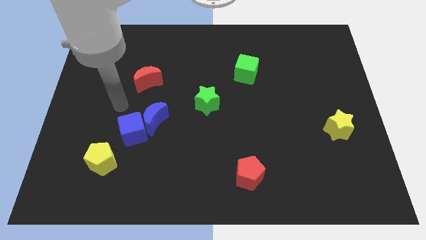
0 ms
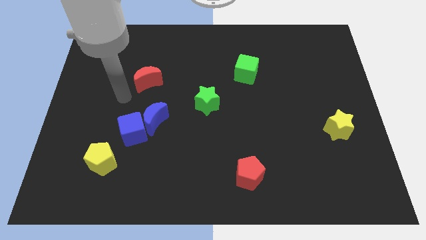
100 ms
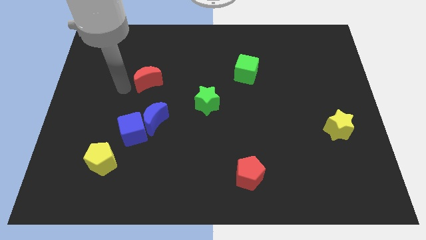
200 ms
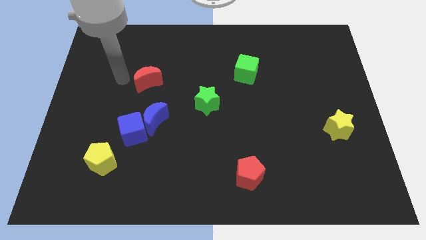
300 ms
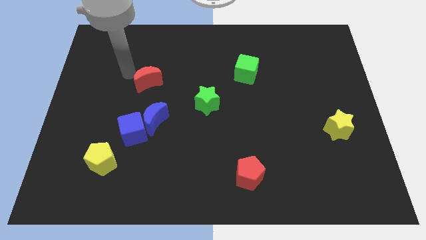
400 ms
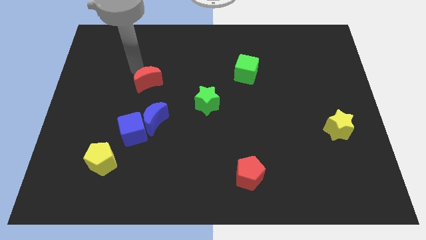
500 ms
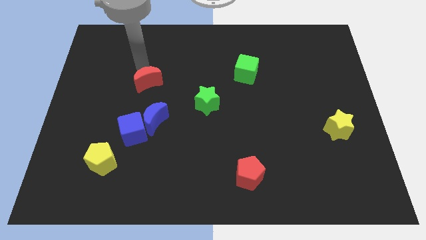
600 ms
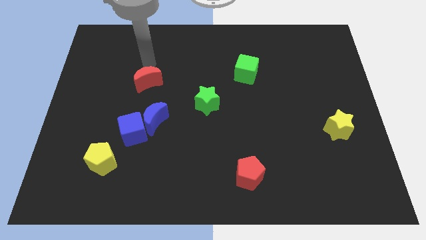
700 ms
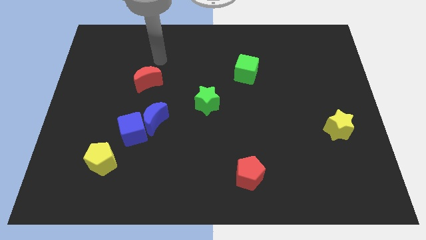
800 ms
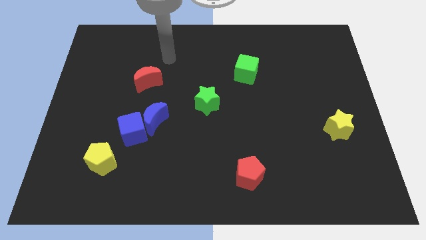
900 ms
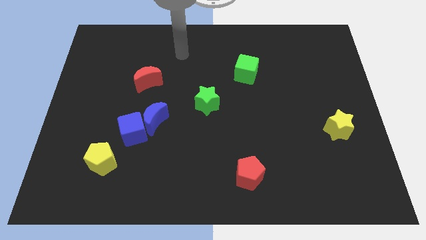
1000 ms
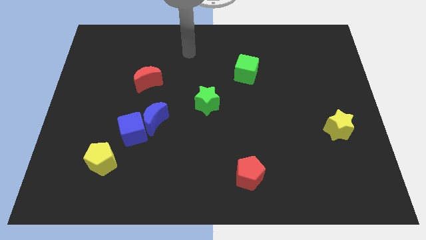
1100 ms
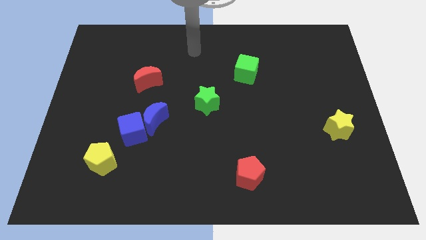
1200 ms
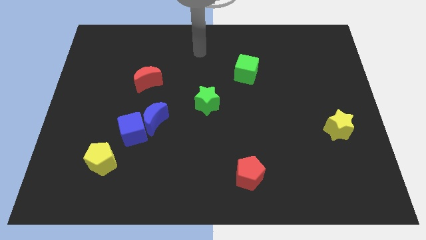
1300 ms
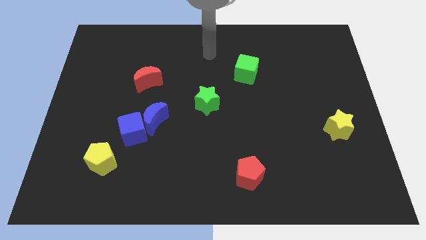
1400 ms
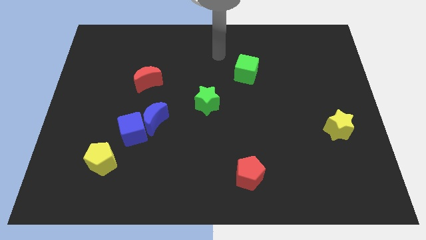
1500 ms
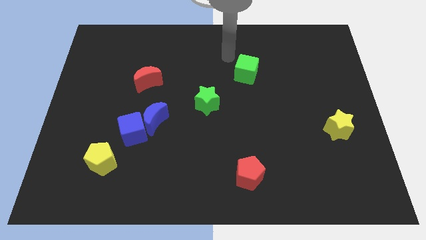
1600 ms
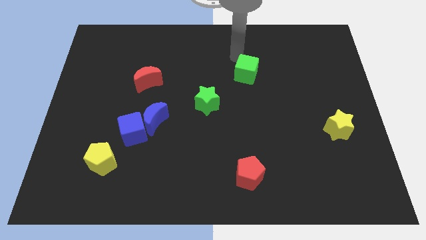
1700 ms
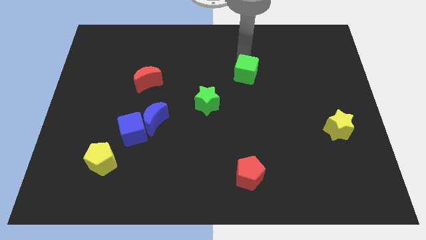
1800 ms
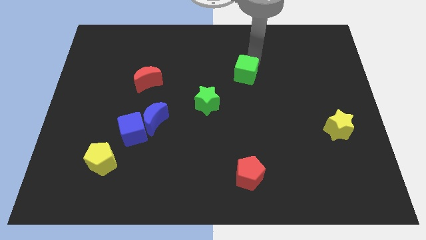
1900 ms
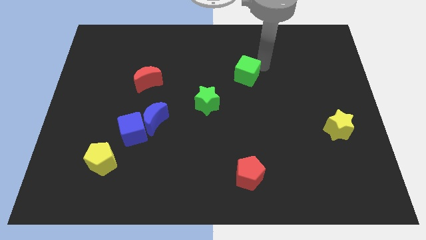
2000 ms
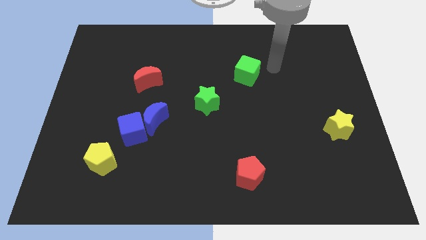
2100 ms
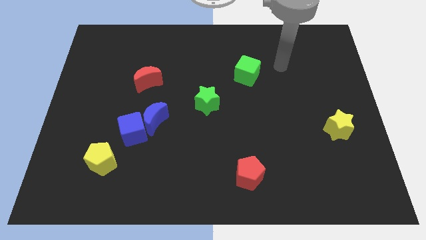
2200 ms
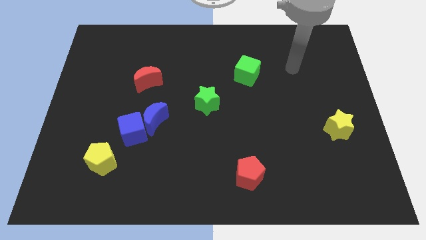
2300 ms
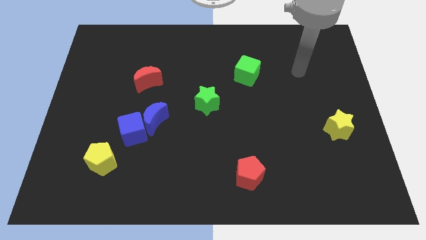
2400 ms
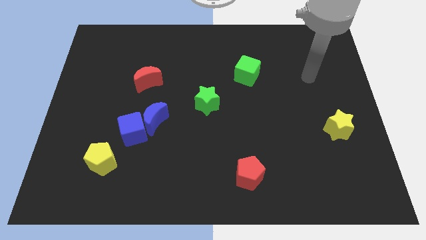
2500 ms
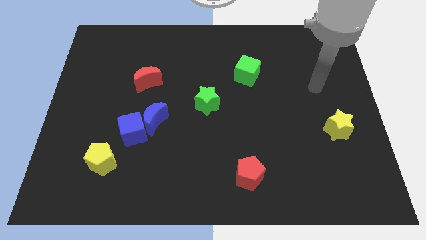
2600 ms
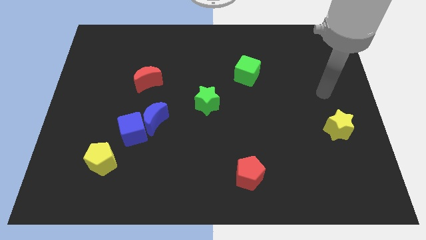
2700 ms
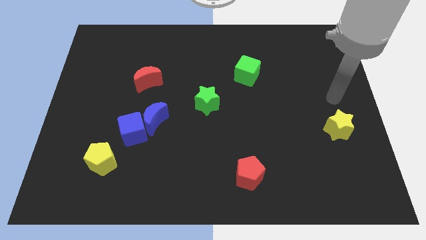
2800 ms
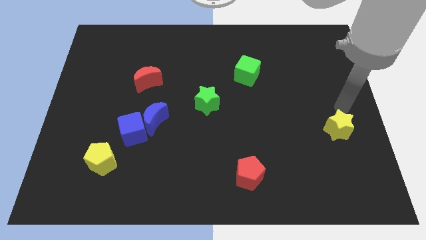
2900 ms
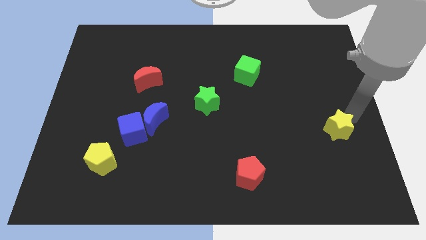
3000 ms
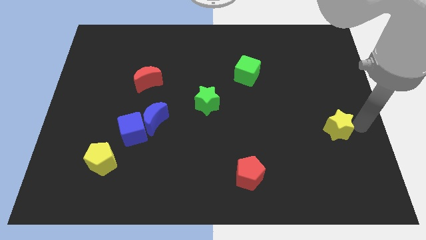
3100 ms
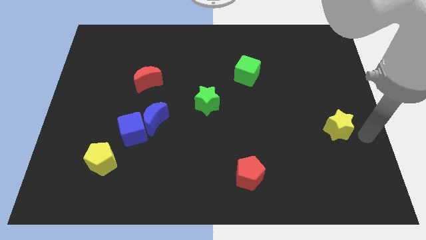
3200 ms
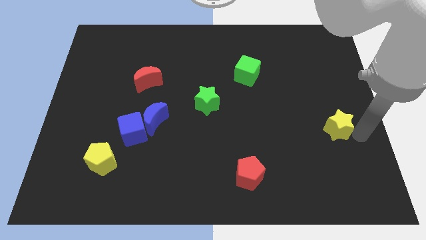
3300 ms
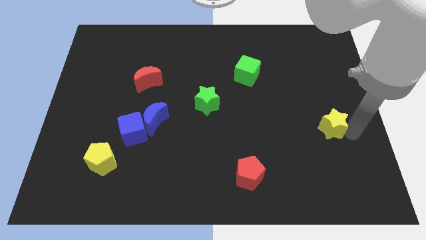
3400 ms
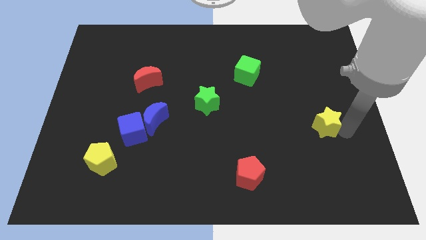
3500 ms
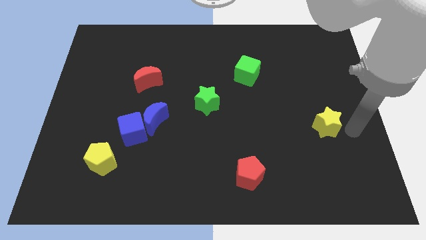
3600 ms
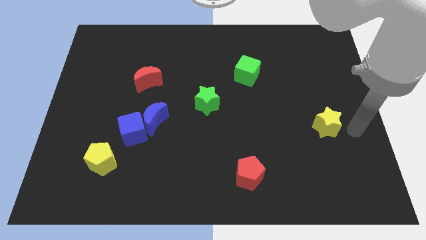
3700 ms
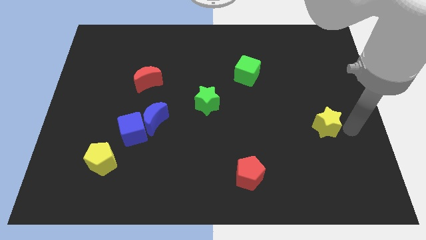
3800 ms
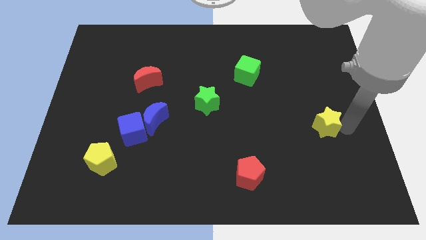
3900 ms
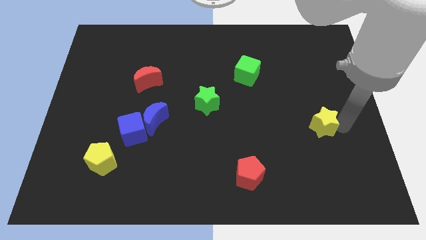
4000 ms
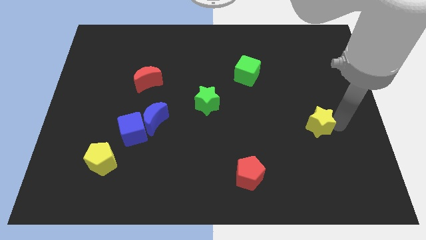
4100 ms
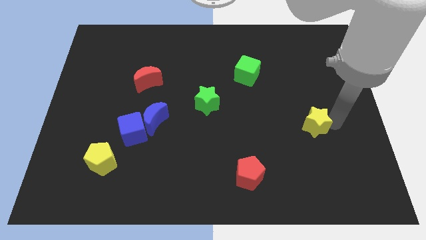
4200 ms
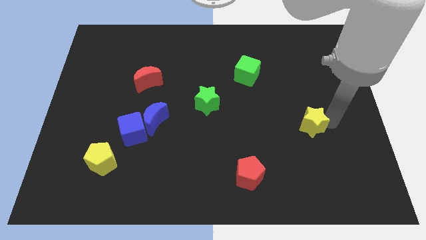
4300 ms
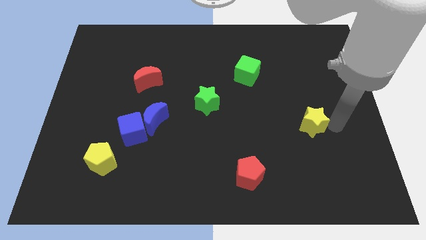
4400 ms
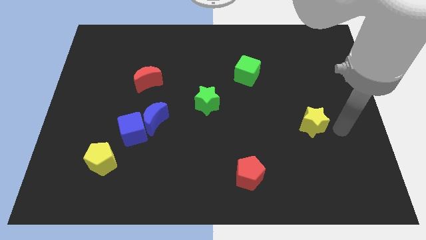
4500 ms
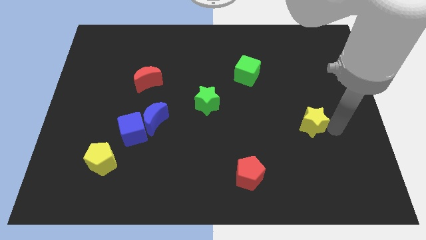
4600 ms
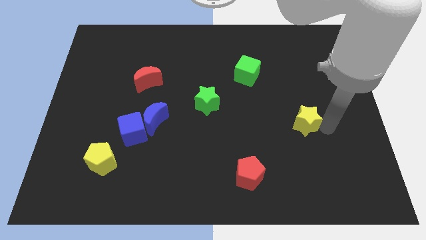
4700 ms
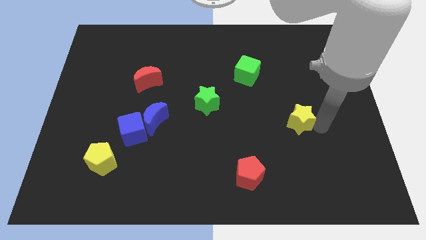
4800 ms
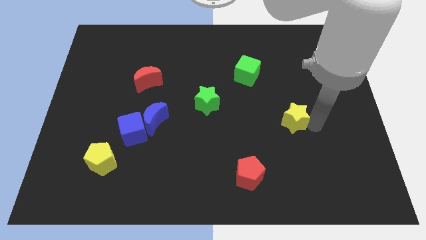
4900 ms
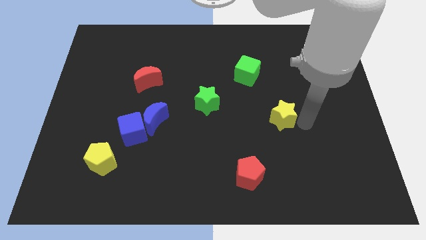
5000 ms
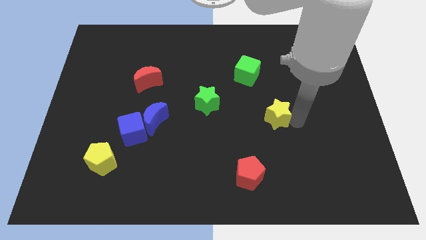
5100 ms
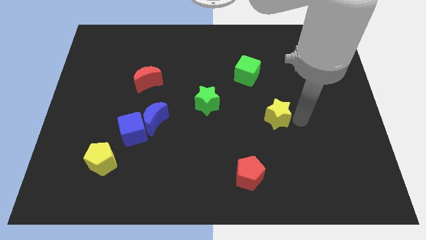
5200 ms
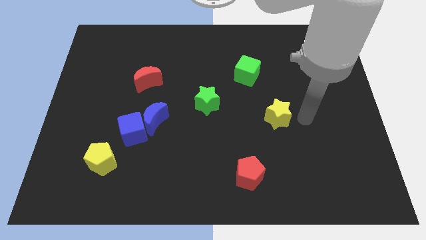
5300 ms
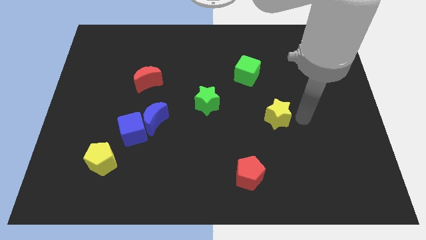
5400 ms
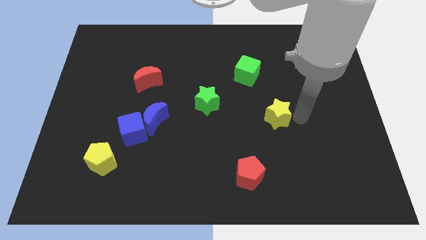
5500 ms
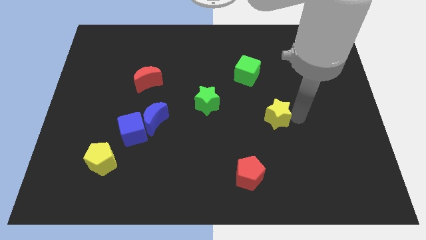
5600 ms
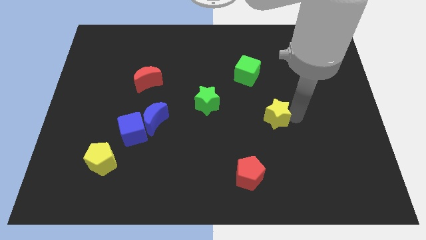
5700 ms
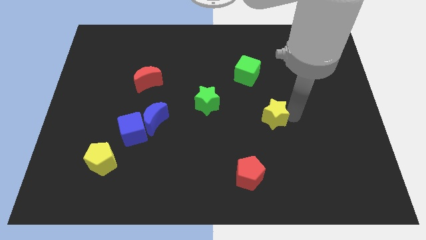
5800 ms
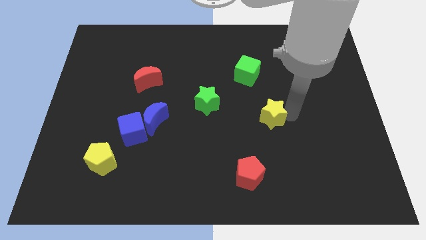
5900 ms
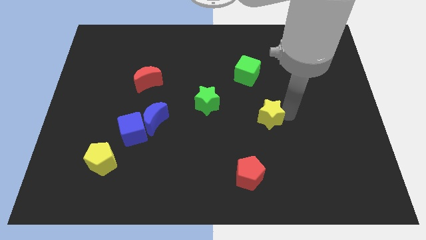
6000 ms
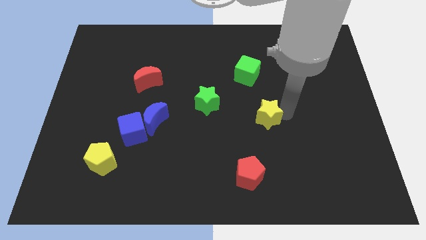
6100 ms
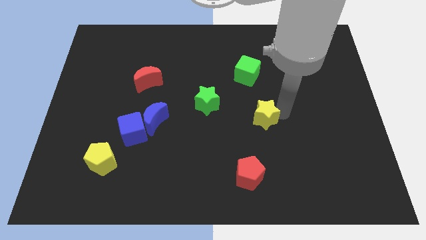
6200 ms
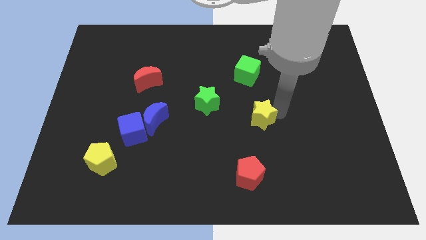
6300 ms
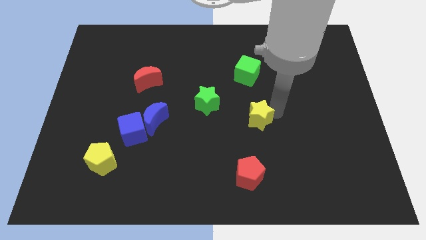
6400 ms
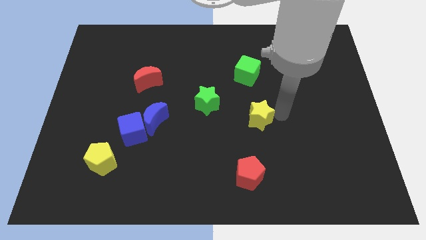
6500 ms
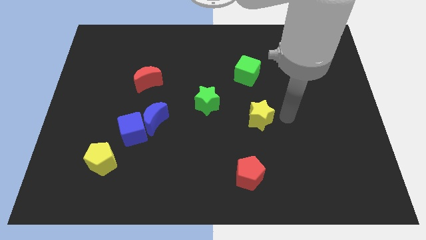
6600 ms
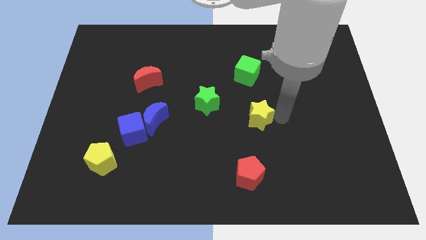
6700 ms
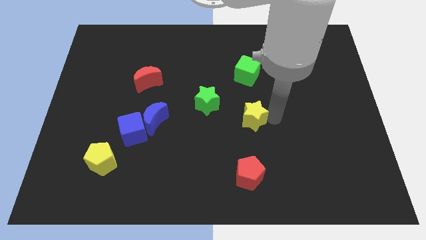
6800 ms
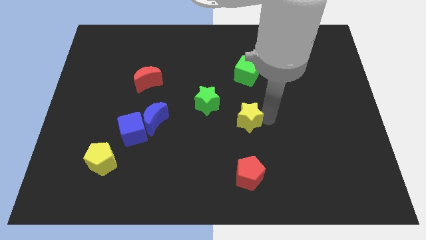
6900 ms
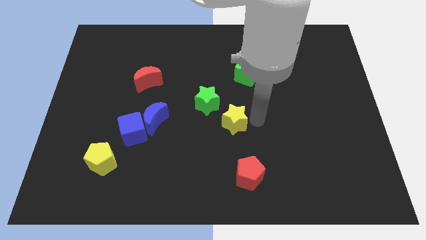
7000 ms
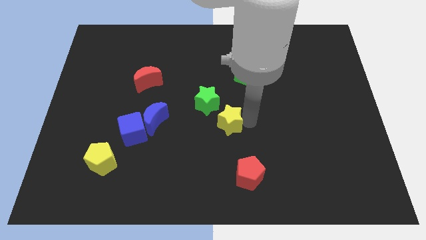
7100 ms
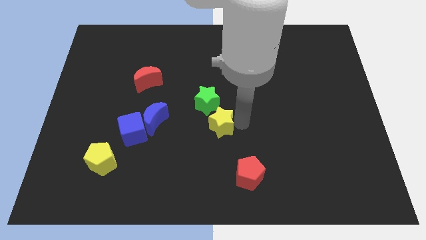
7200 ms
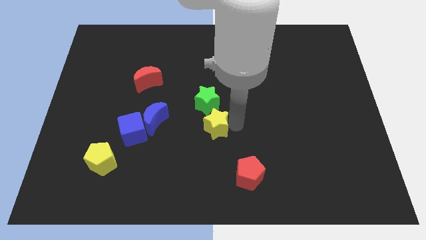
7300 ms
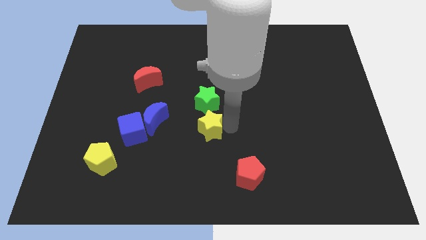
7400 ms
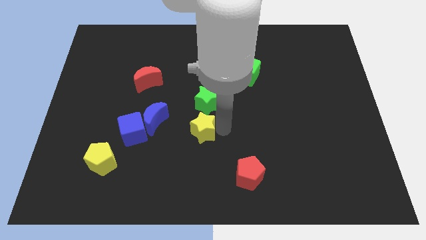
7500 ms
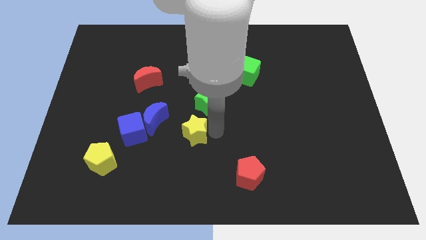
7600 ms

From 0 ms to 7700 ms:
put the yellow star to the bottom left side of the green star
